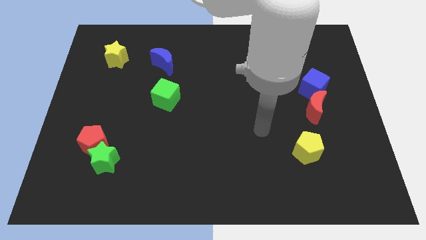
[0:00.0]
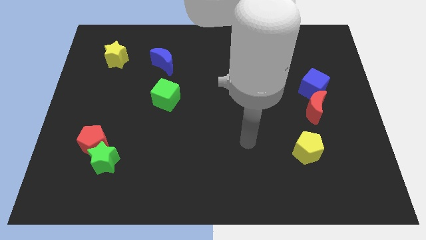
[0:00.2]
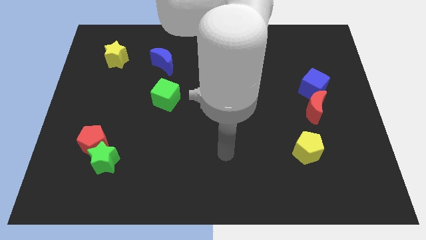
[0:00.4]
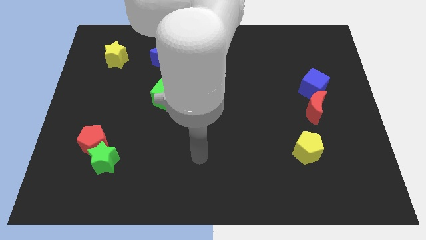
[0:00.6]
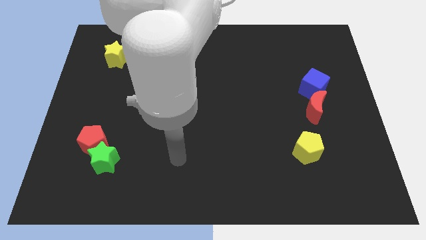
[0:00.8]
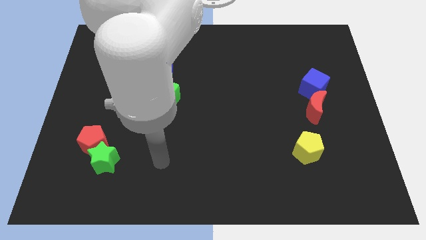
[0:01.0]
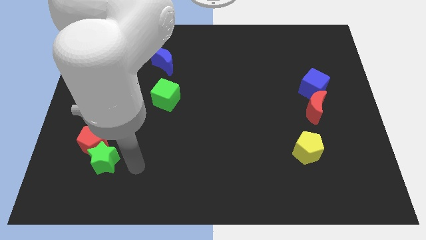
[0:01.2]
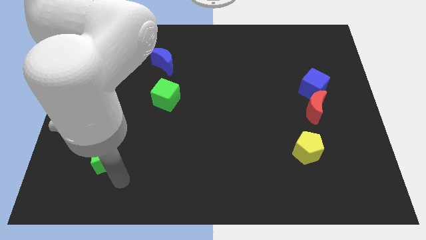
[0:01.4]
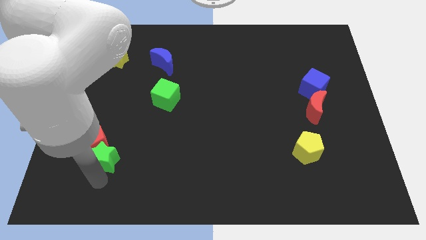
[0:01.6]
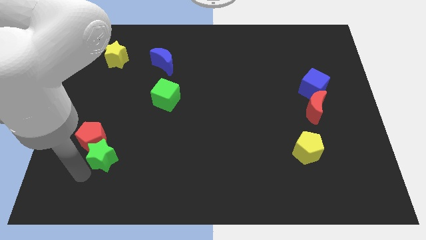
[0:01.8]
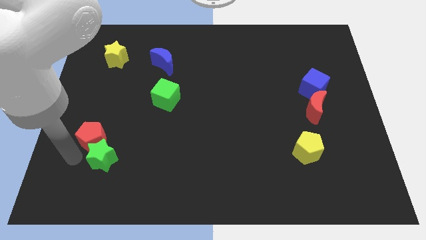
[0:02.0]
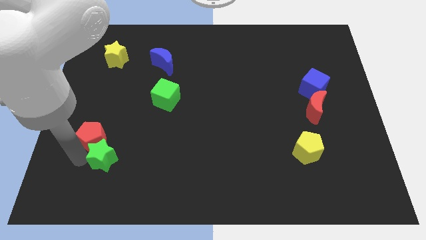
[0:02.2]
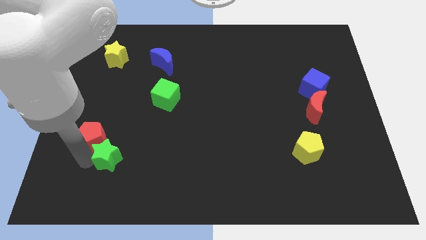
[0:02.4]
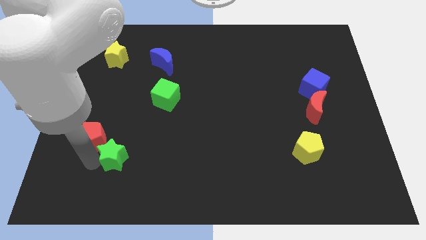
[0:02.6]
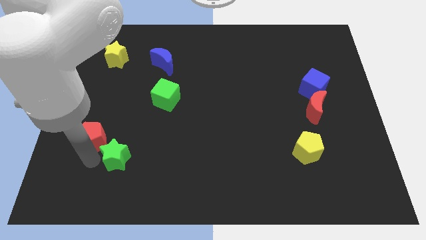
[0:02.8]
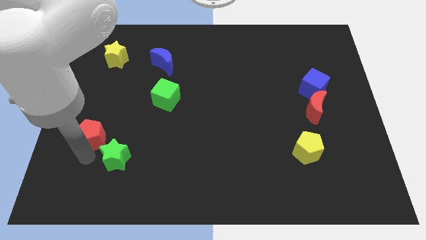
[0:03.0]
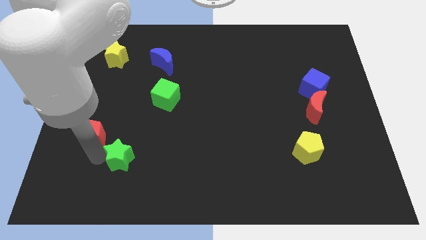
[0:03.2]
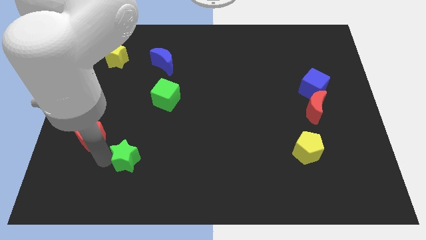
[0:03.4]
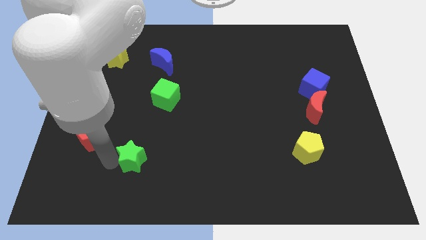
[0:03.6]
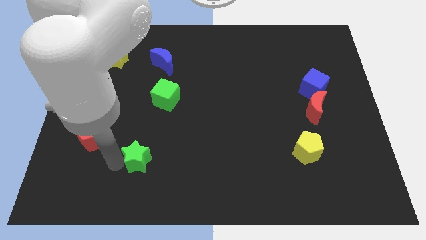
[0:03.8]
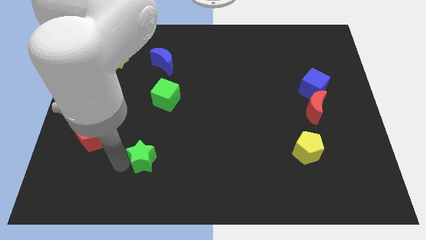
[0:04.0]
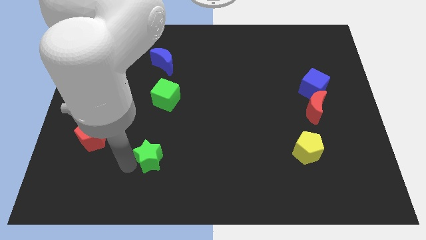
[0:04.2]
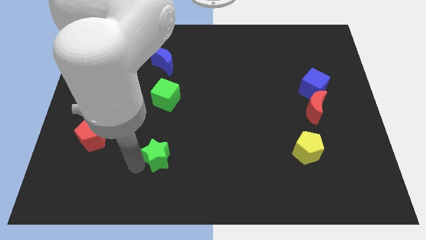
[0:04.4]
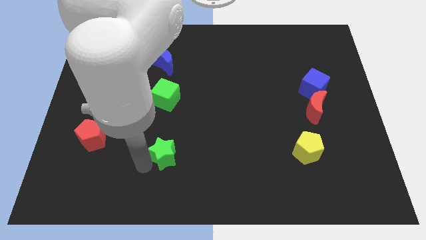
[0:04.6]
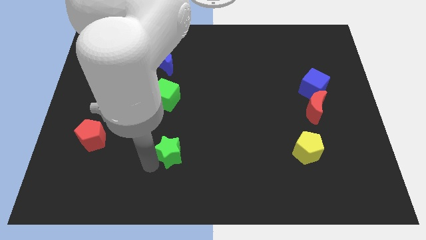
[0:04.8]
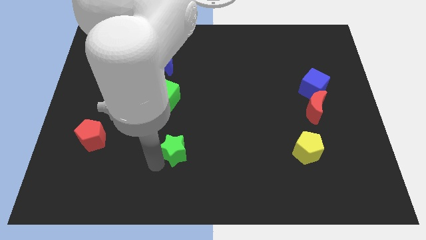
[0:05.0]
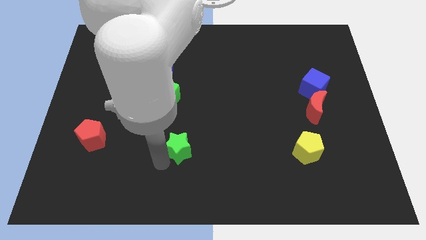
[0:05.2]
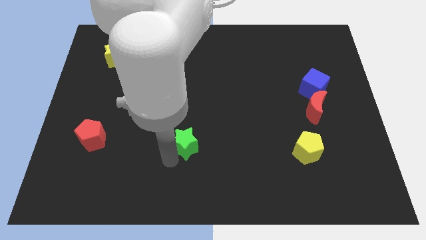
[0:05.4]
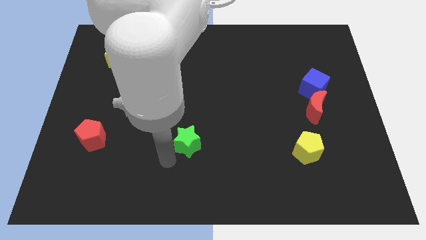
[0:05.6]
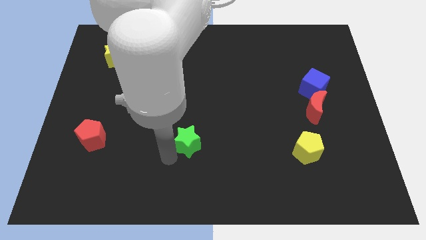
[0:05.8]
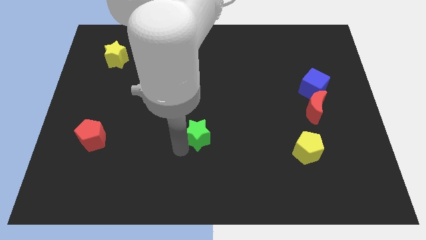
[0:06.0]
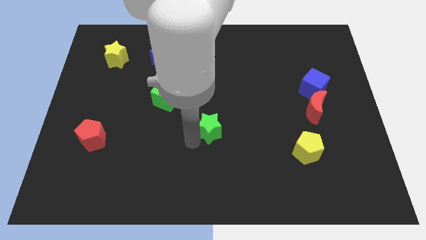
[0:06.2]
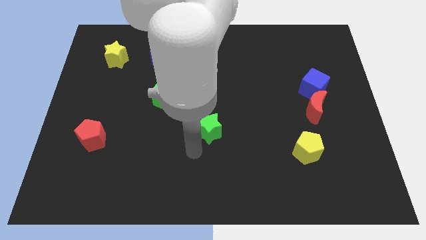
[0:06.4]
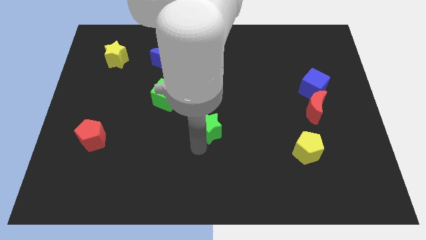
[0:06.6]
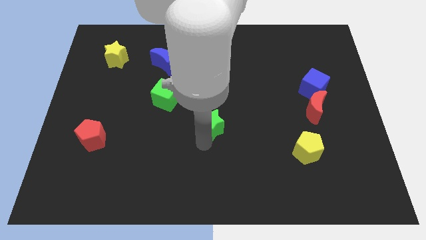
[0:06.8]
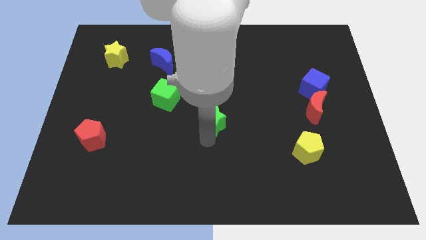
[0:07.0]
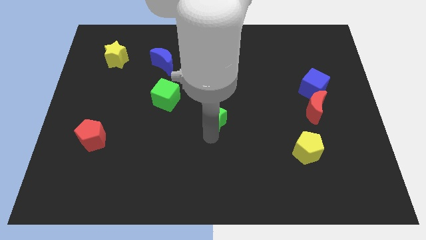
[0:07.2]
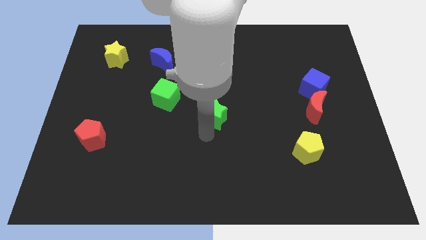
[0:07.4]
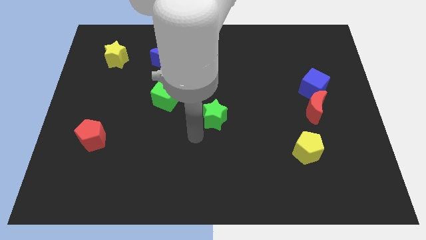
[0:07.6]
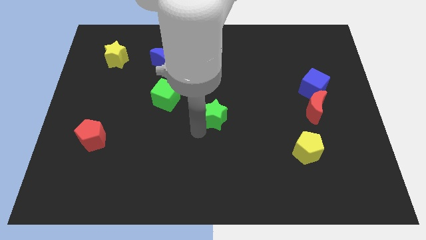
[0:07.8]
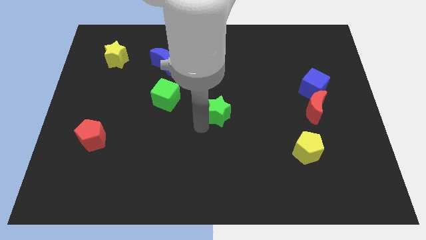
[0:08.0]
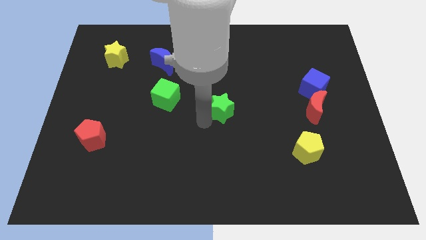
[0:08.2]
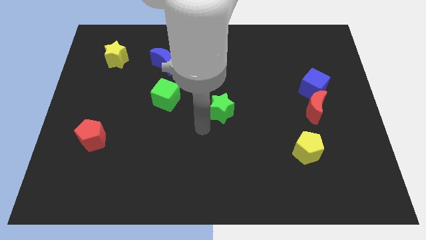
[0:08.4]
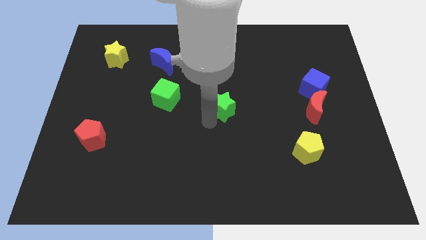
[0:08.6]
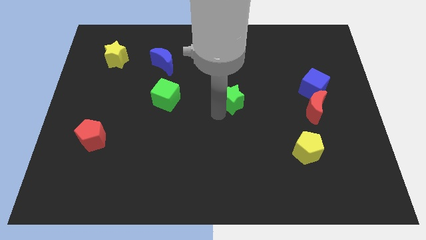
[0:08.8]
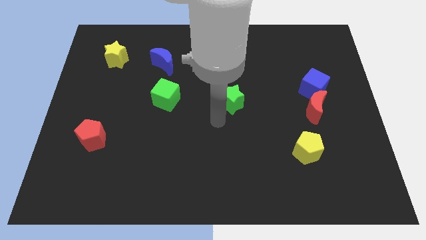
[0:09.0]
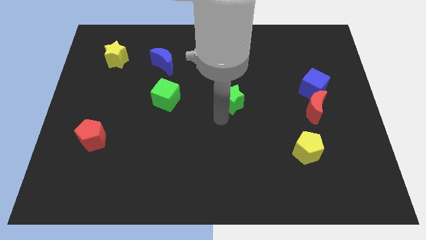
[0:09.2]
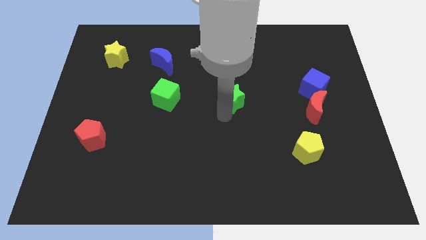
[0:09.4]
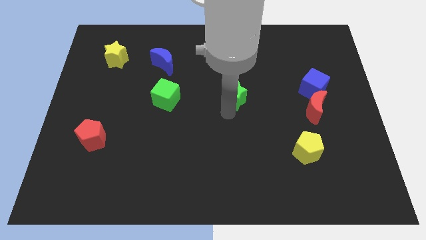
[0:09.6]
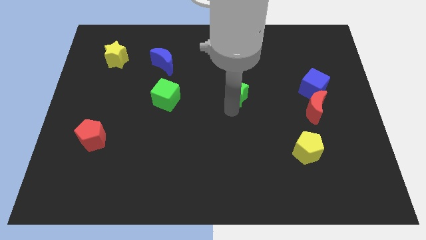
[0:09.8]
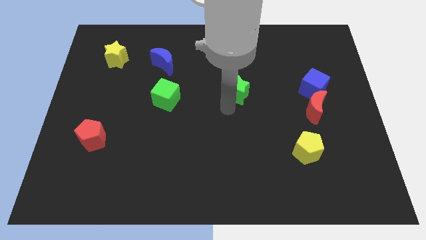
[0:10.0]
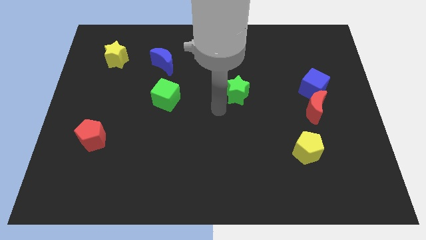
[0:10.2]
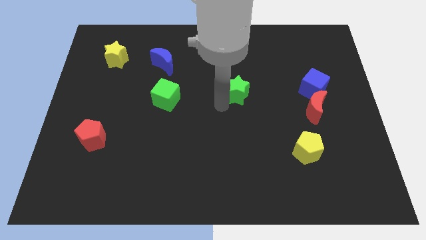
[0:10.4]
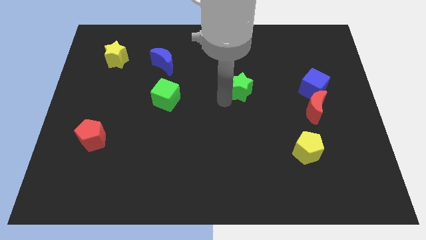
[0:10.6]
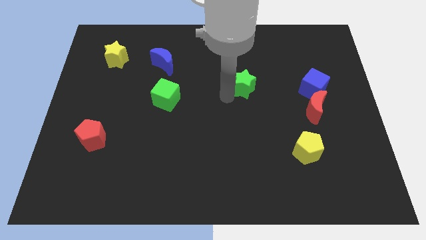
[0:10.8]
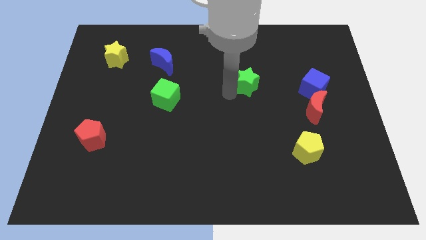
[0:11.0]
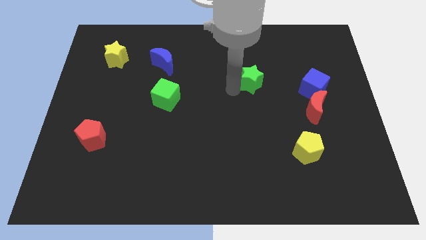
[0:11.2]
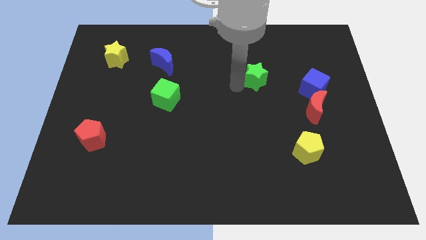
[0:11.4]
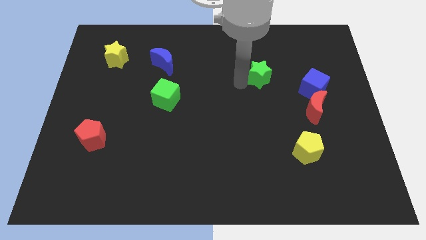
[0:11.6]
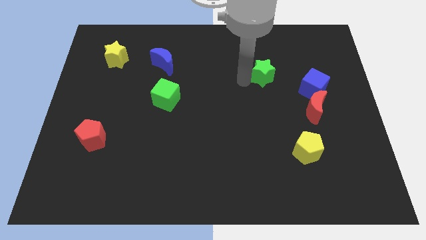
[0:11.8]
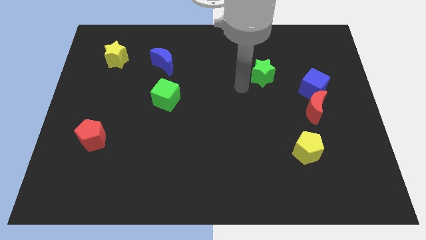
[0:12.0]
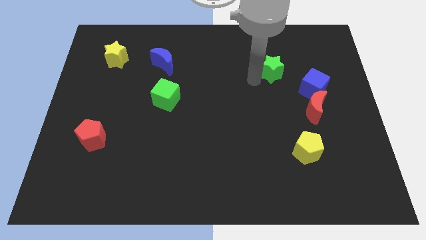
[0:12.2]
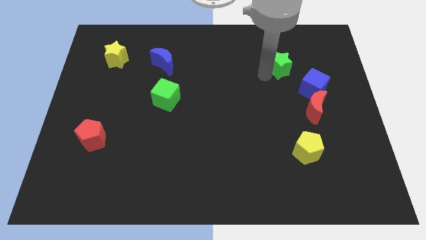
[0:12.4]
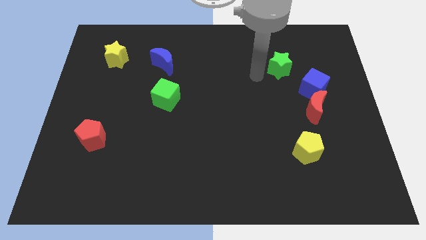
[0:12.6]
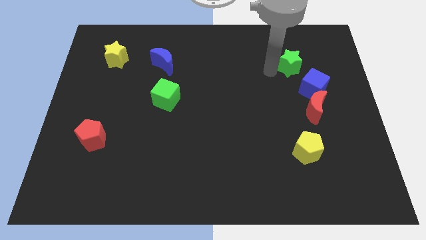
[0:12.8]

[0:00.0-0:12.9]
put the green star to the top of the blue cube

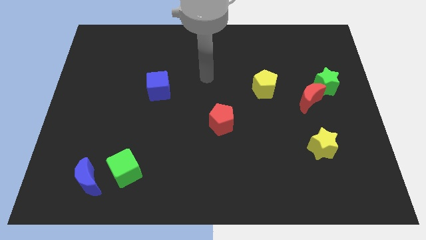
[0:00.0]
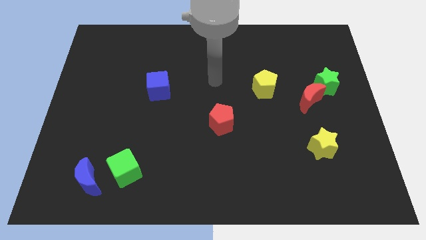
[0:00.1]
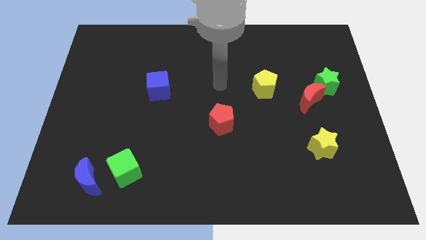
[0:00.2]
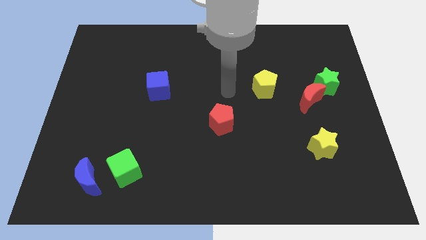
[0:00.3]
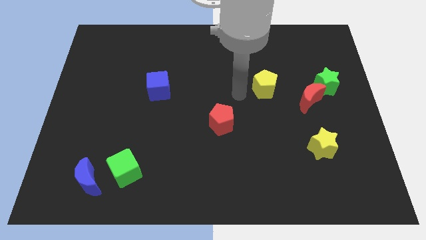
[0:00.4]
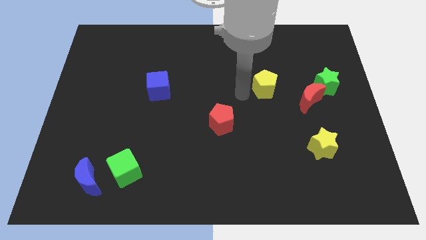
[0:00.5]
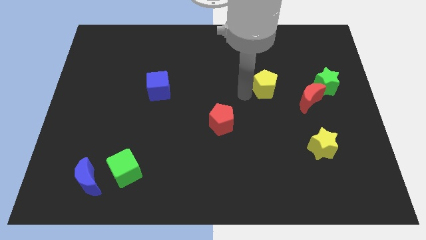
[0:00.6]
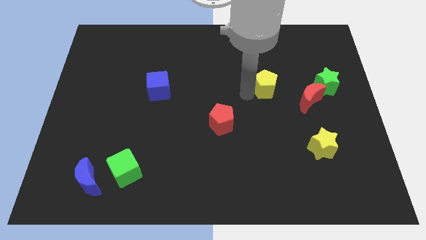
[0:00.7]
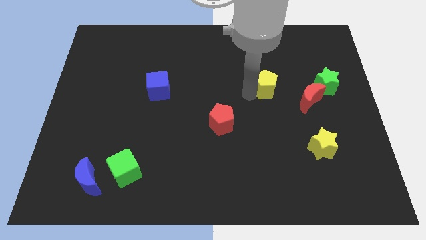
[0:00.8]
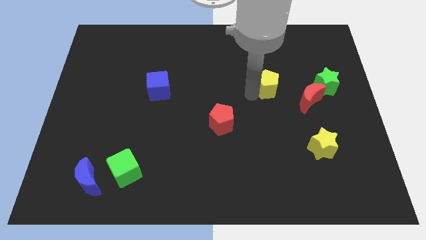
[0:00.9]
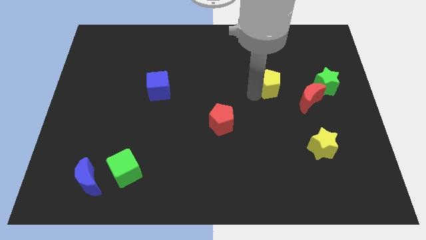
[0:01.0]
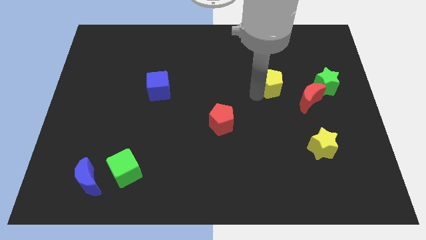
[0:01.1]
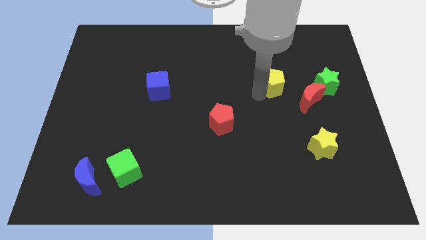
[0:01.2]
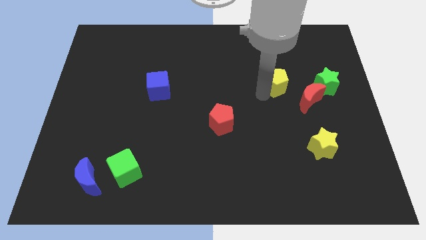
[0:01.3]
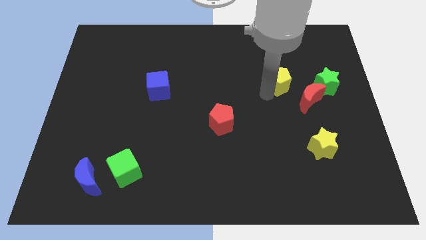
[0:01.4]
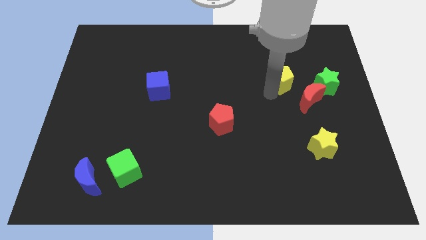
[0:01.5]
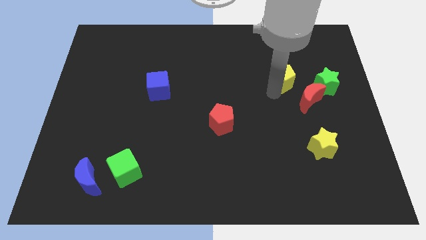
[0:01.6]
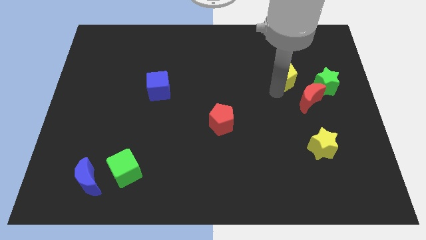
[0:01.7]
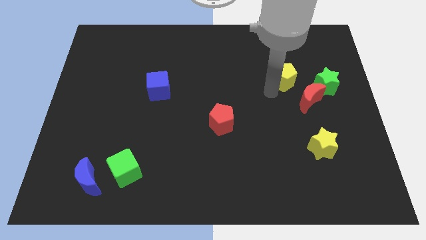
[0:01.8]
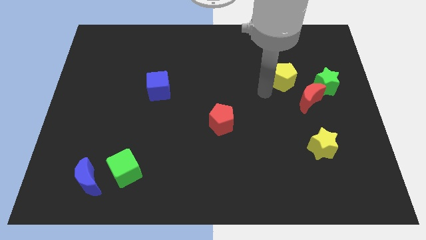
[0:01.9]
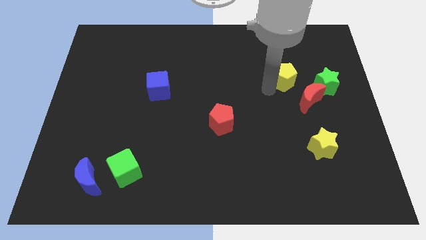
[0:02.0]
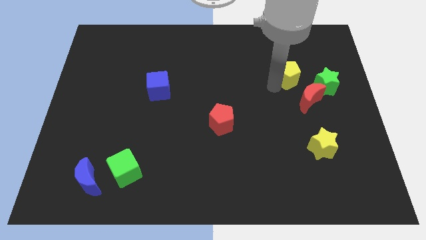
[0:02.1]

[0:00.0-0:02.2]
slide the yellow pentagon diagonally up and to the left of the green star
